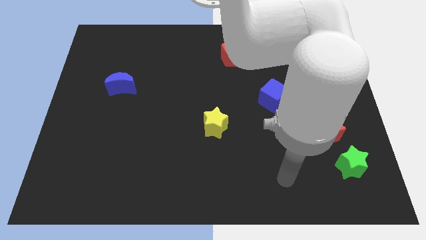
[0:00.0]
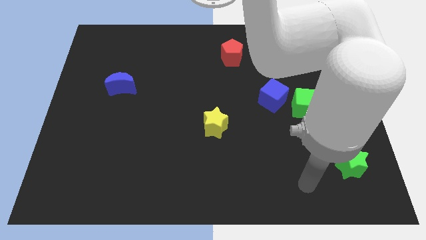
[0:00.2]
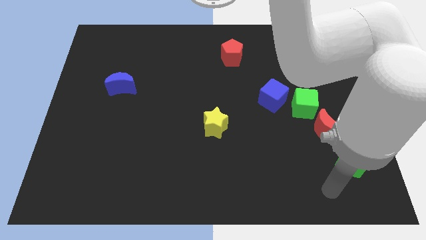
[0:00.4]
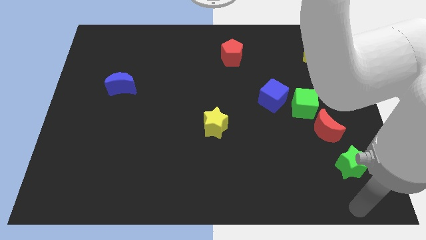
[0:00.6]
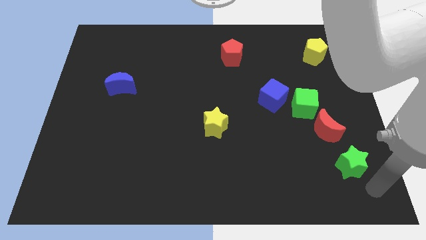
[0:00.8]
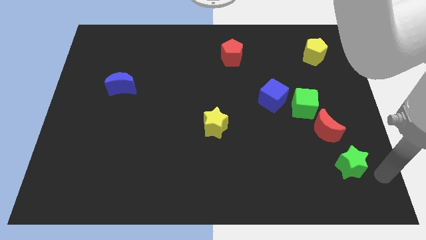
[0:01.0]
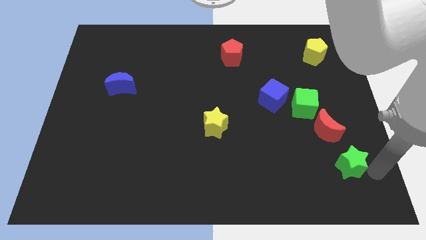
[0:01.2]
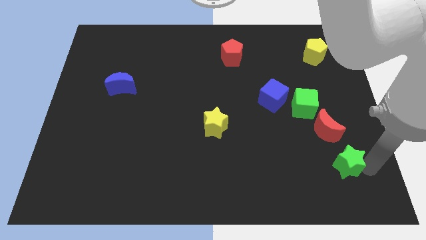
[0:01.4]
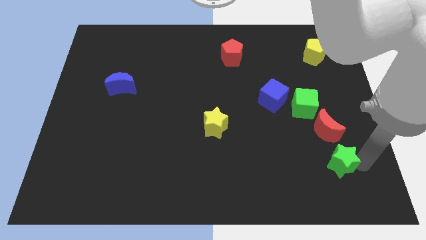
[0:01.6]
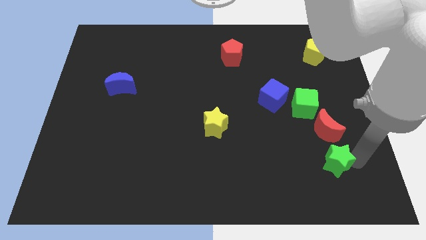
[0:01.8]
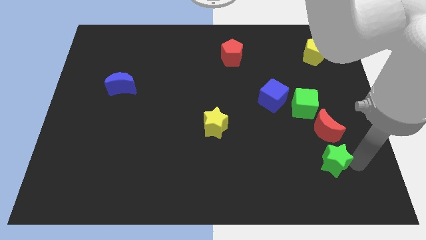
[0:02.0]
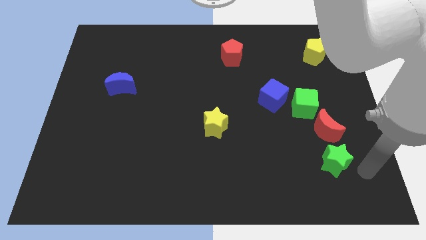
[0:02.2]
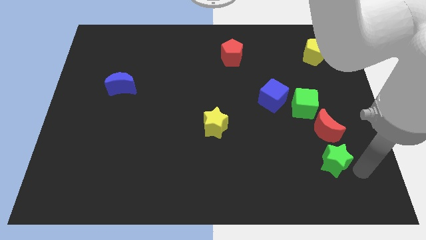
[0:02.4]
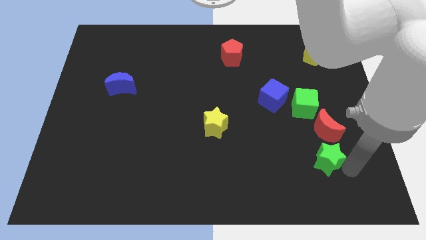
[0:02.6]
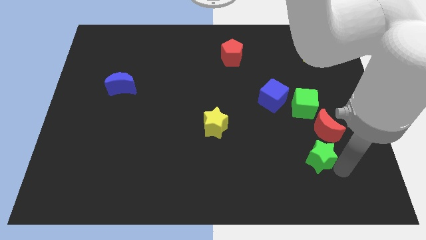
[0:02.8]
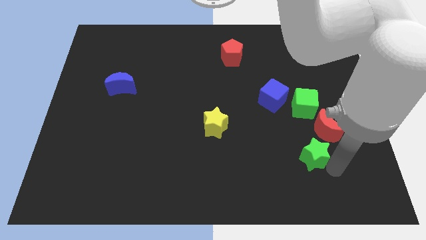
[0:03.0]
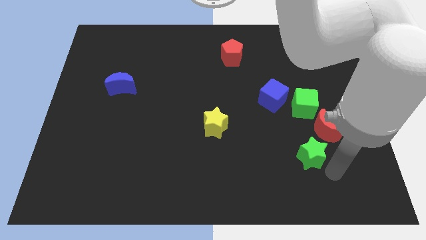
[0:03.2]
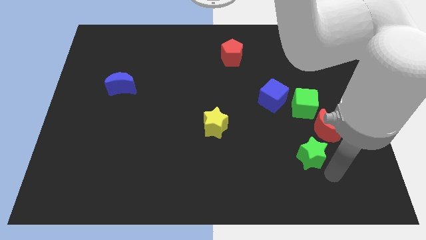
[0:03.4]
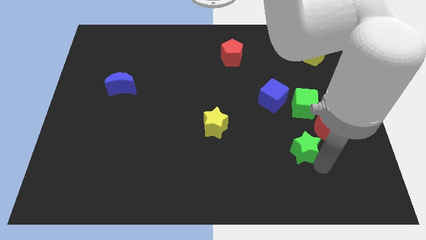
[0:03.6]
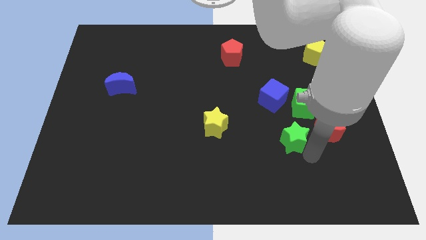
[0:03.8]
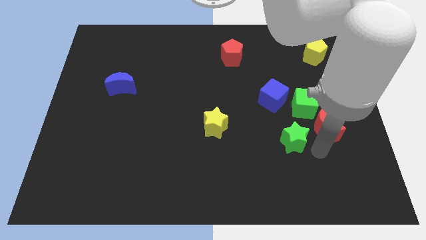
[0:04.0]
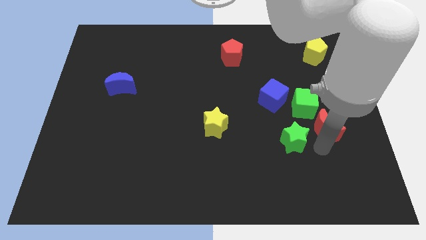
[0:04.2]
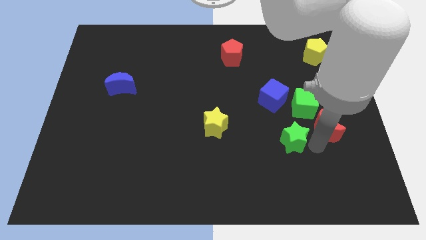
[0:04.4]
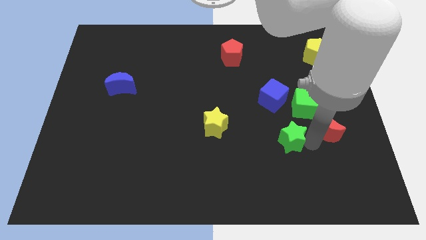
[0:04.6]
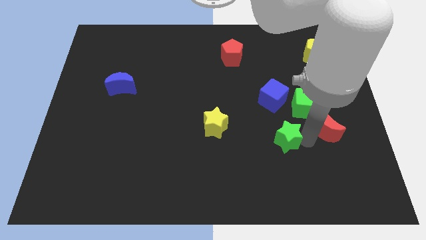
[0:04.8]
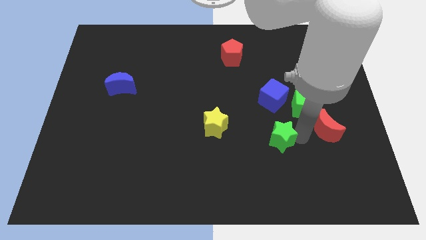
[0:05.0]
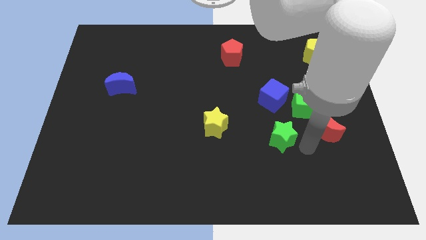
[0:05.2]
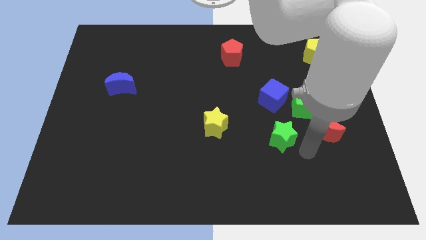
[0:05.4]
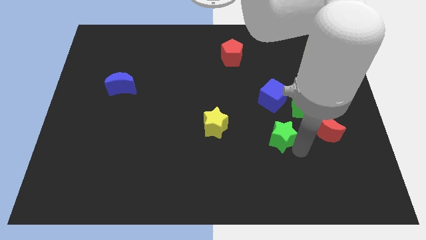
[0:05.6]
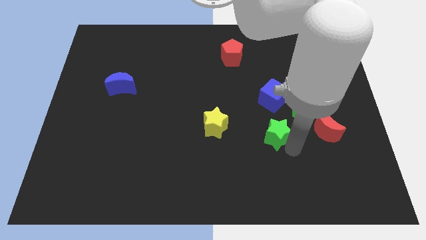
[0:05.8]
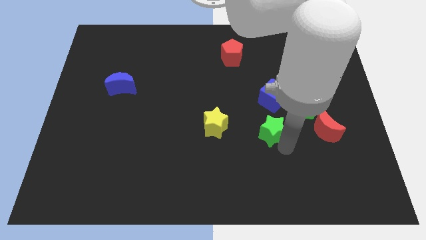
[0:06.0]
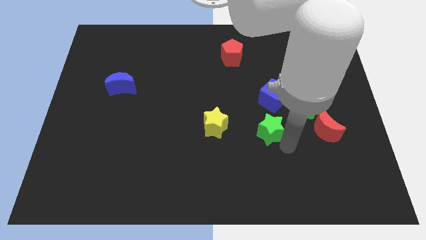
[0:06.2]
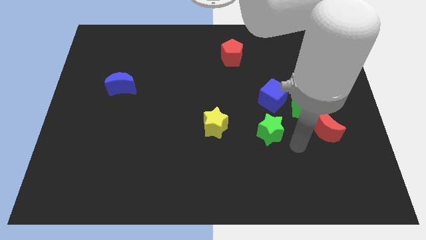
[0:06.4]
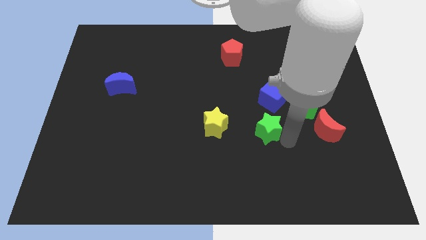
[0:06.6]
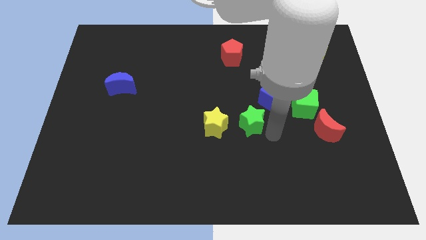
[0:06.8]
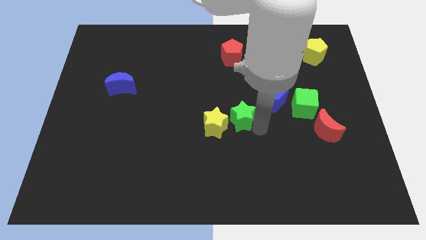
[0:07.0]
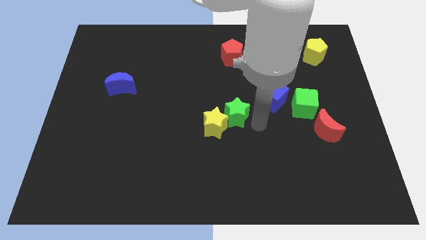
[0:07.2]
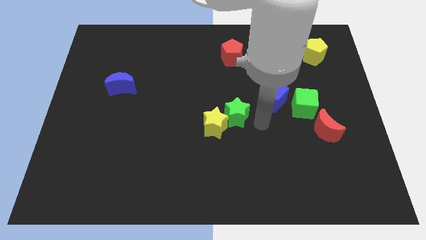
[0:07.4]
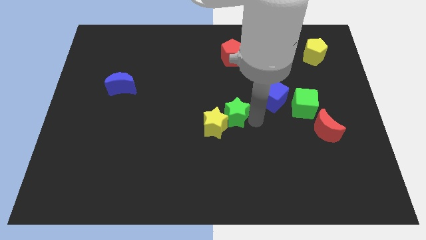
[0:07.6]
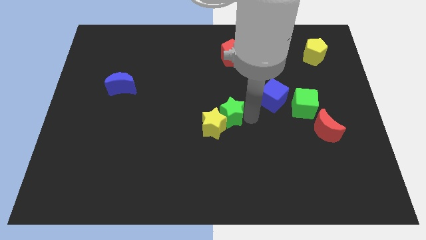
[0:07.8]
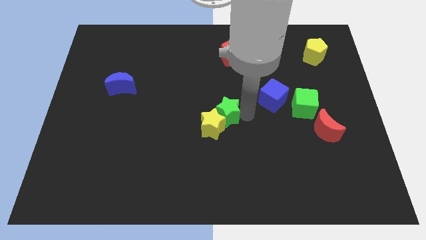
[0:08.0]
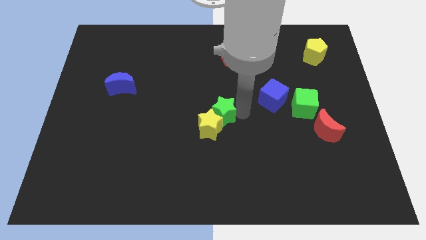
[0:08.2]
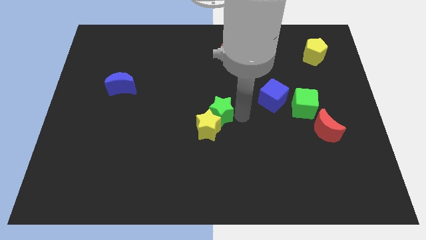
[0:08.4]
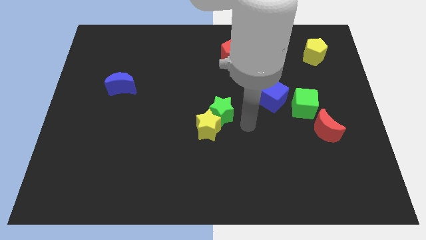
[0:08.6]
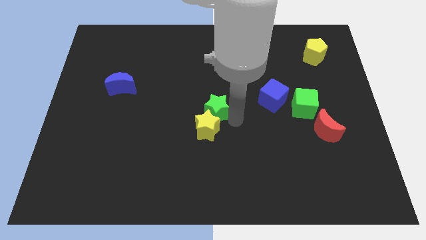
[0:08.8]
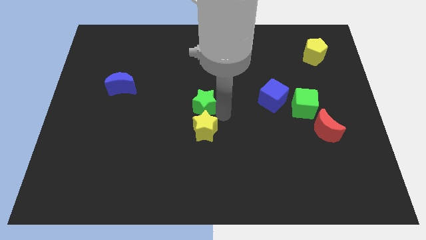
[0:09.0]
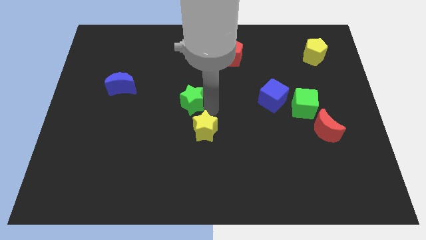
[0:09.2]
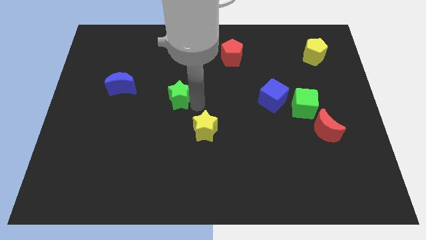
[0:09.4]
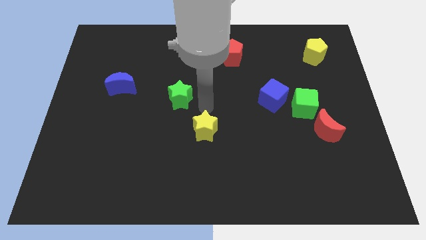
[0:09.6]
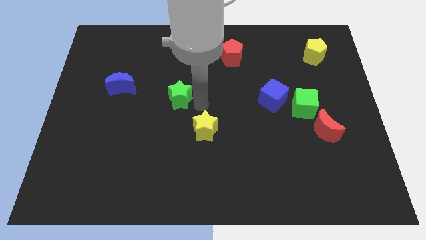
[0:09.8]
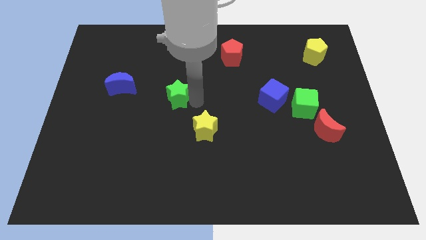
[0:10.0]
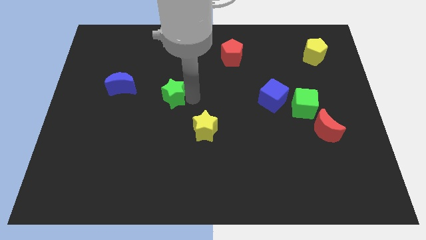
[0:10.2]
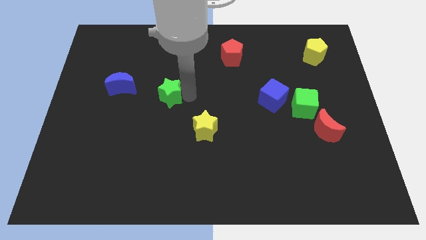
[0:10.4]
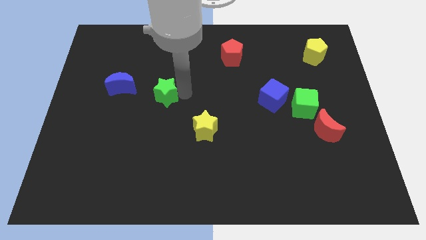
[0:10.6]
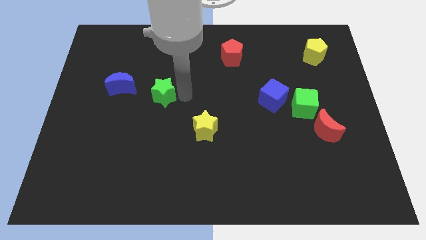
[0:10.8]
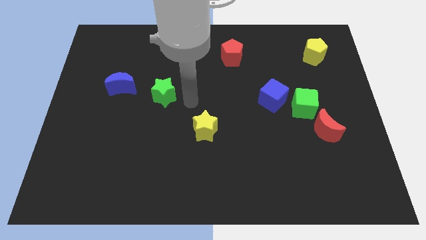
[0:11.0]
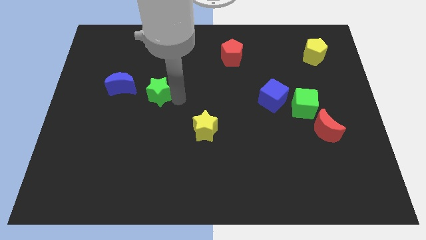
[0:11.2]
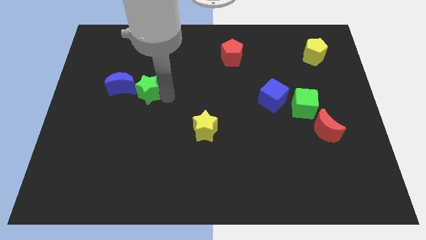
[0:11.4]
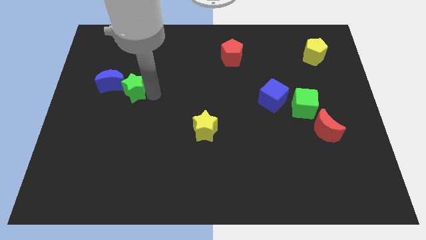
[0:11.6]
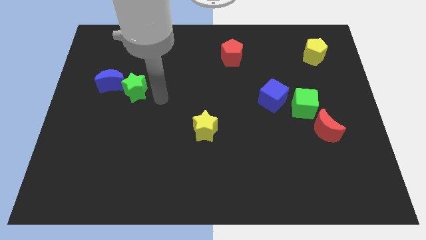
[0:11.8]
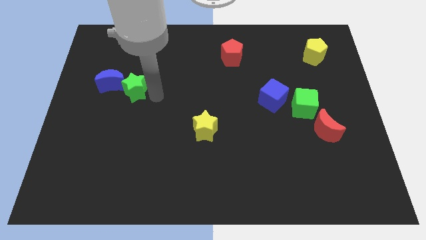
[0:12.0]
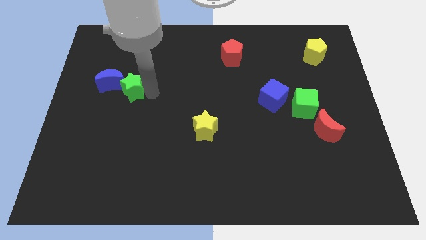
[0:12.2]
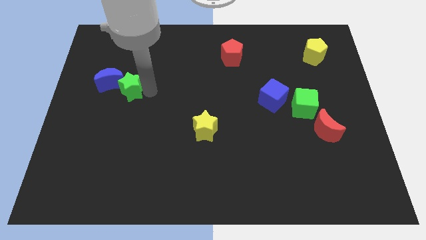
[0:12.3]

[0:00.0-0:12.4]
put the green star next to the blue moon
